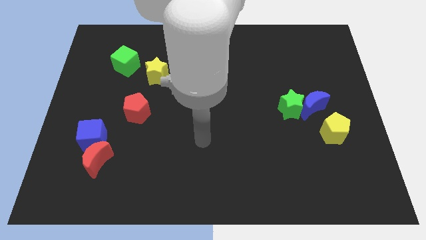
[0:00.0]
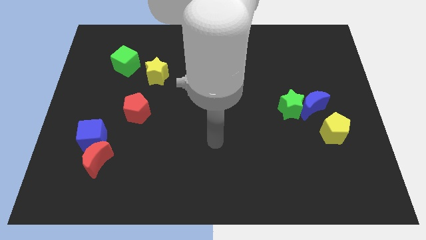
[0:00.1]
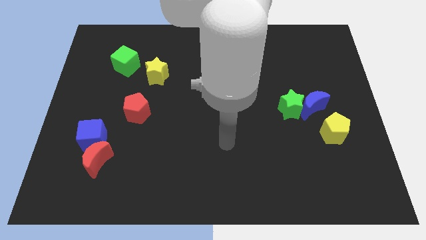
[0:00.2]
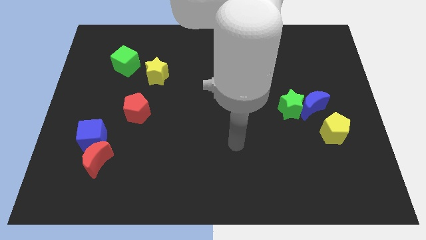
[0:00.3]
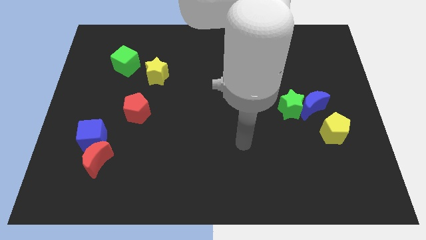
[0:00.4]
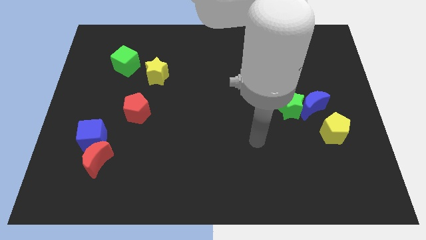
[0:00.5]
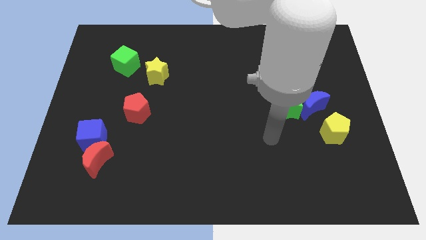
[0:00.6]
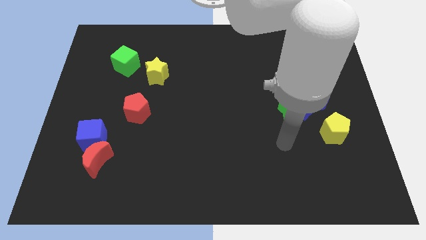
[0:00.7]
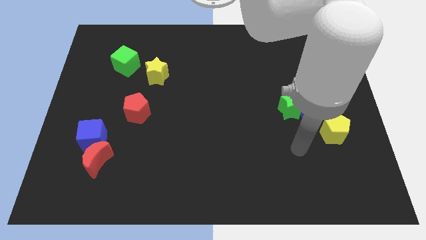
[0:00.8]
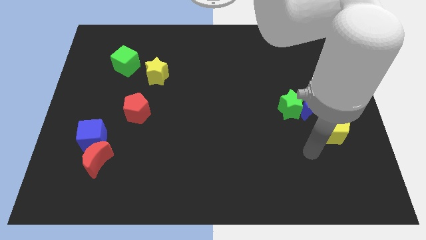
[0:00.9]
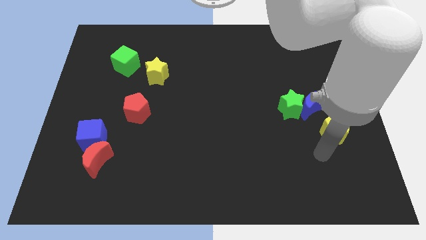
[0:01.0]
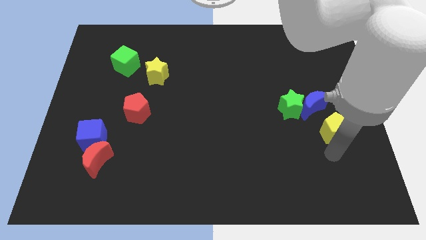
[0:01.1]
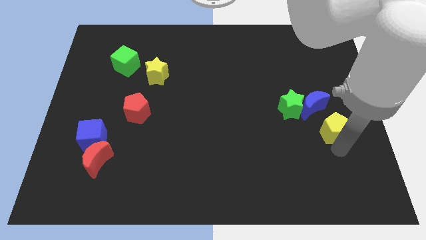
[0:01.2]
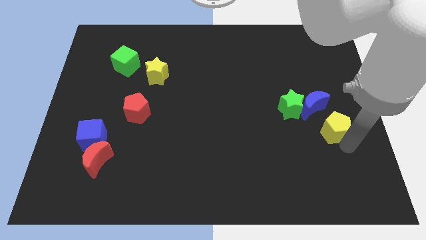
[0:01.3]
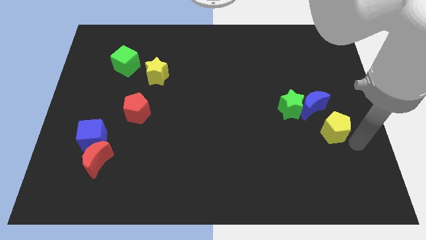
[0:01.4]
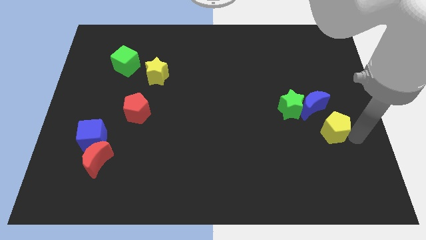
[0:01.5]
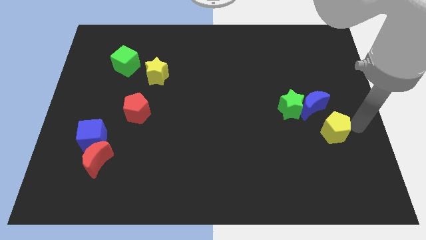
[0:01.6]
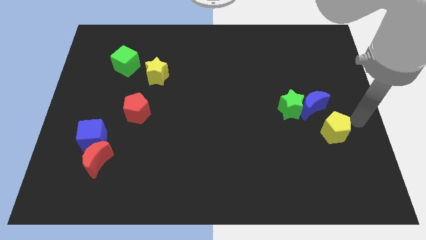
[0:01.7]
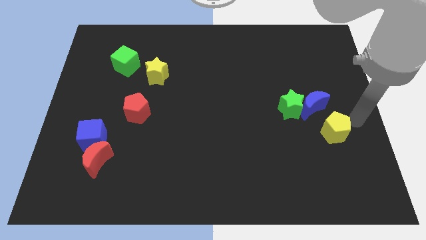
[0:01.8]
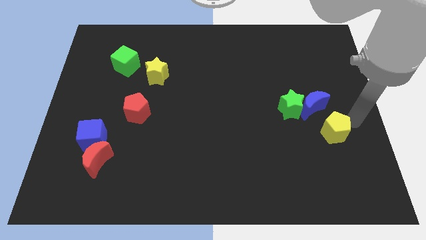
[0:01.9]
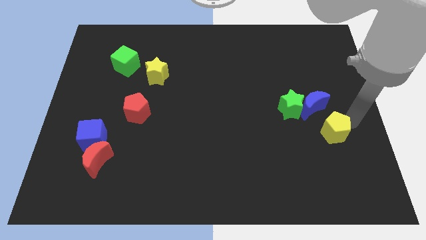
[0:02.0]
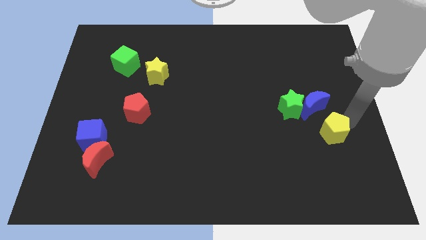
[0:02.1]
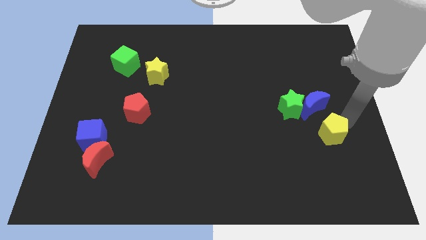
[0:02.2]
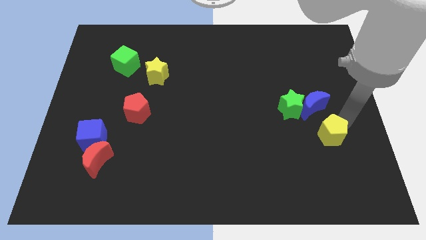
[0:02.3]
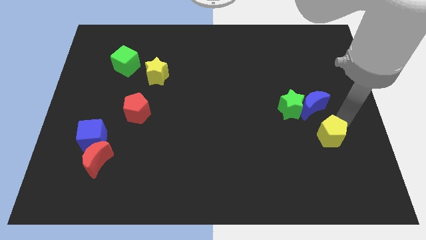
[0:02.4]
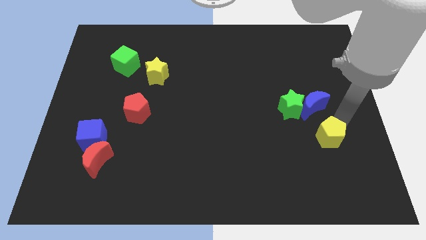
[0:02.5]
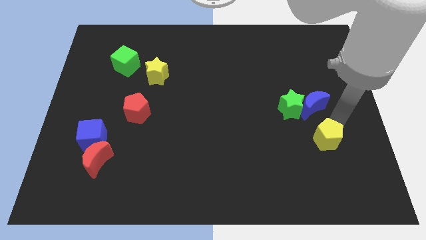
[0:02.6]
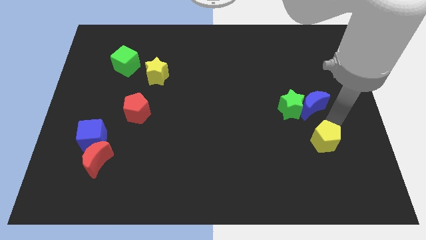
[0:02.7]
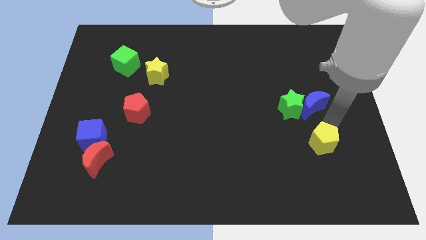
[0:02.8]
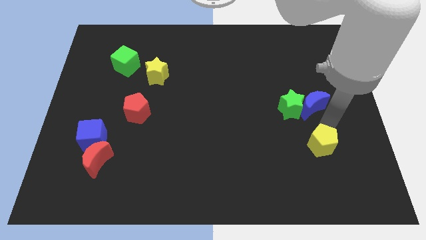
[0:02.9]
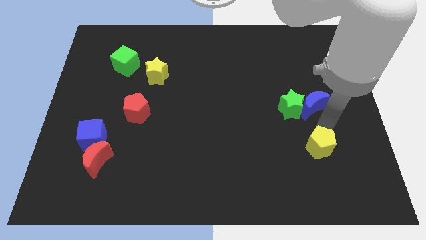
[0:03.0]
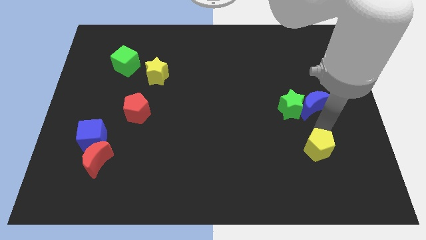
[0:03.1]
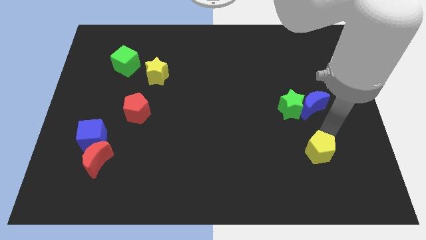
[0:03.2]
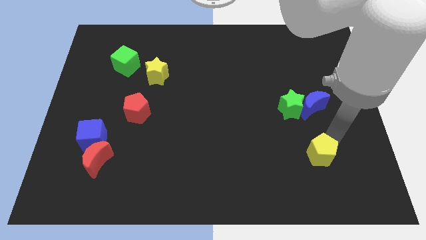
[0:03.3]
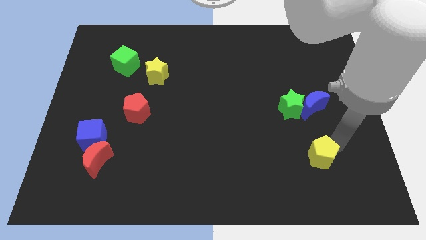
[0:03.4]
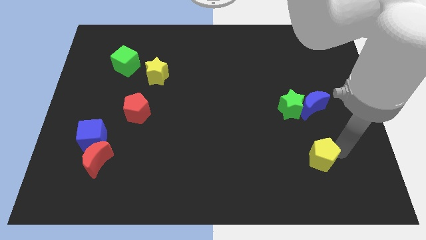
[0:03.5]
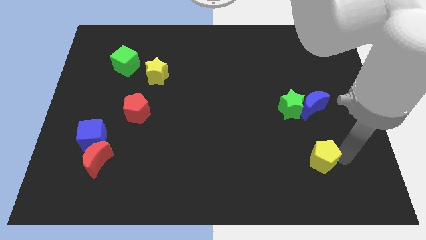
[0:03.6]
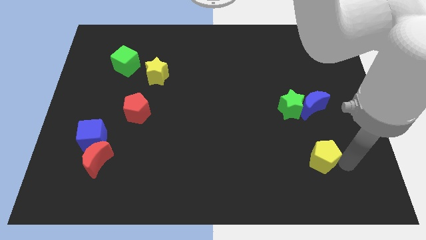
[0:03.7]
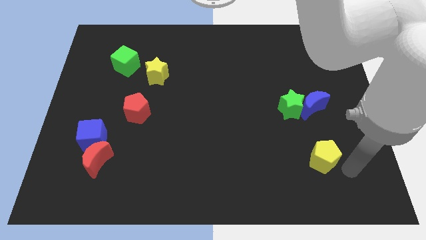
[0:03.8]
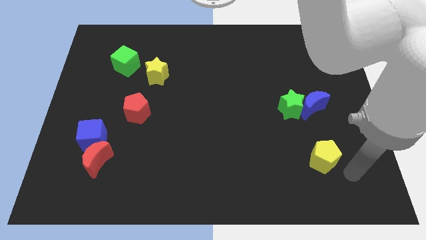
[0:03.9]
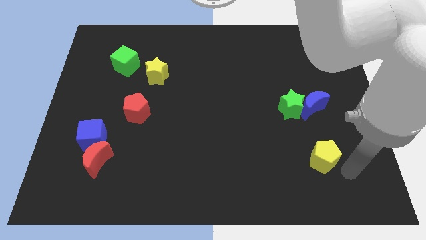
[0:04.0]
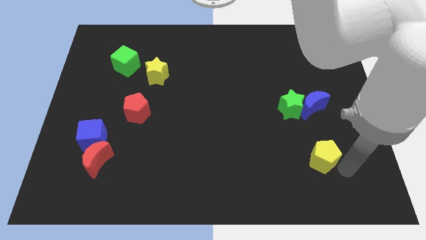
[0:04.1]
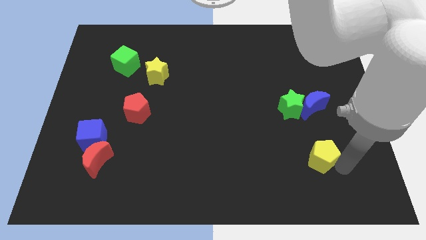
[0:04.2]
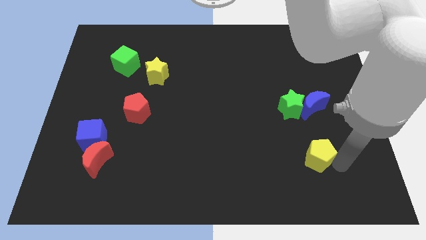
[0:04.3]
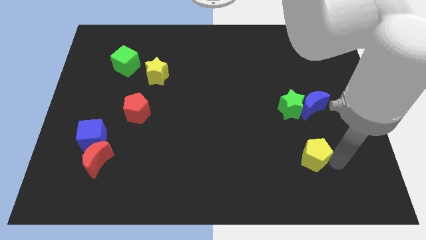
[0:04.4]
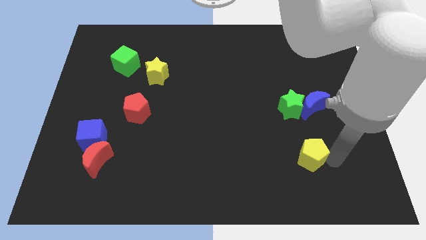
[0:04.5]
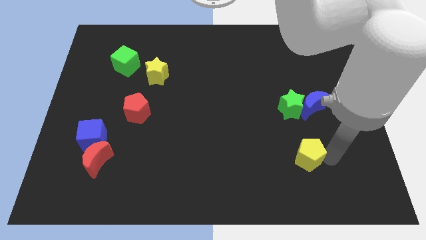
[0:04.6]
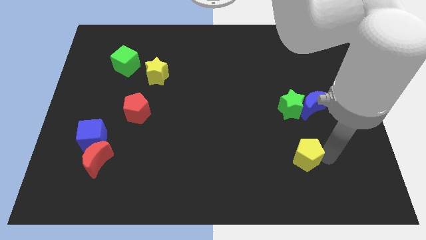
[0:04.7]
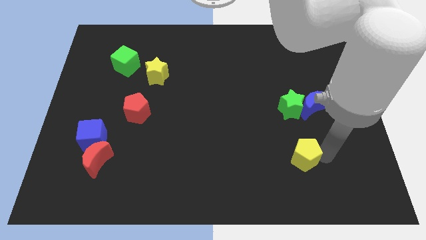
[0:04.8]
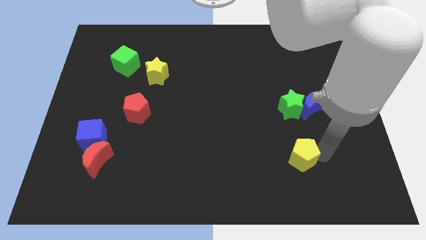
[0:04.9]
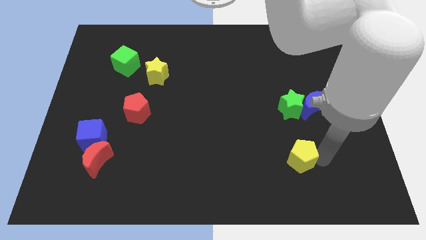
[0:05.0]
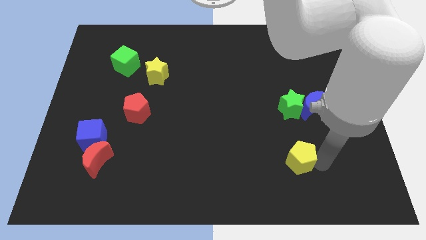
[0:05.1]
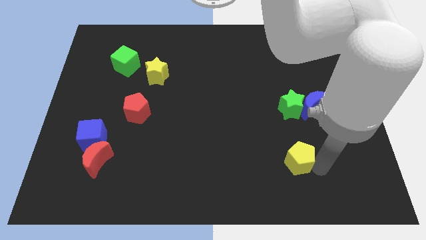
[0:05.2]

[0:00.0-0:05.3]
move the yellow pentagon left a bit

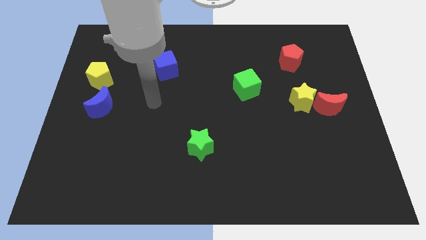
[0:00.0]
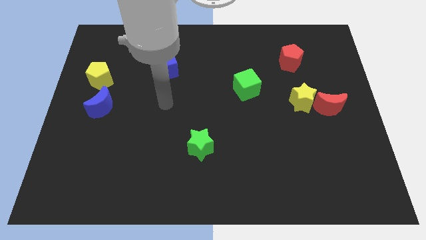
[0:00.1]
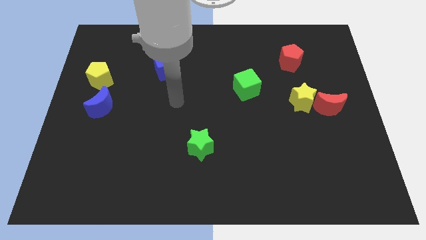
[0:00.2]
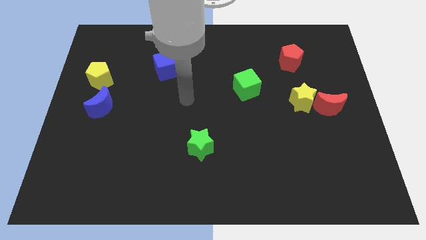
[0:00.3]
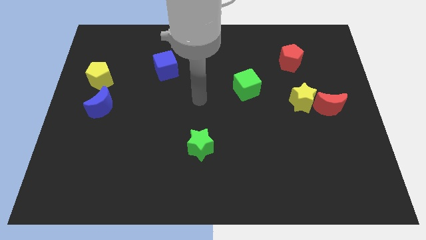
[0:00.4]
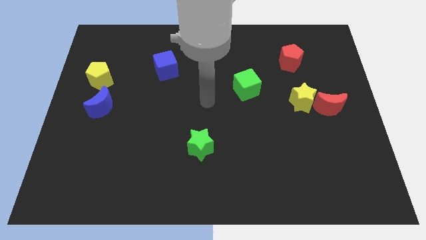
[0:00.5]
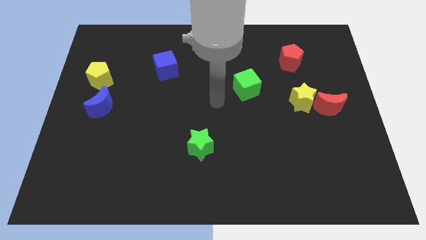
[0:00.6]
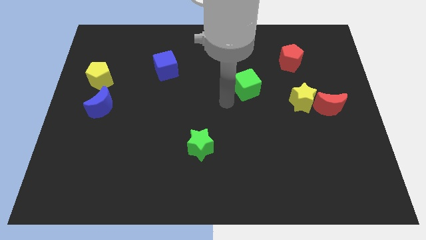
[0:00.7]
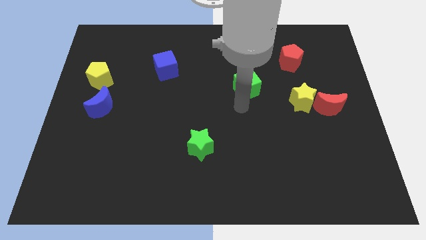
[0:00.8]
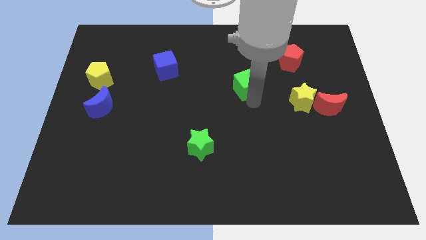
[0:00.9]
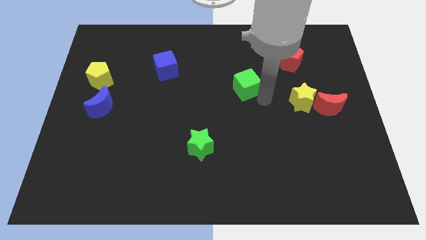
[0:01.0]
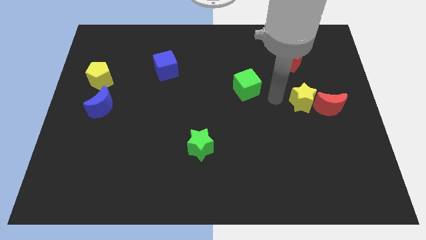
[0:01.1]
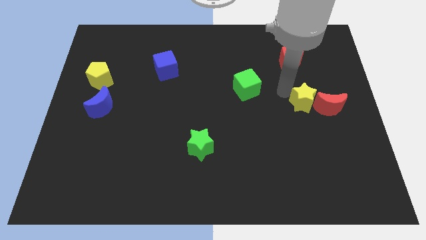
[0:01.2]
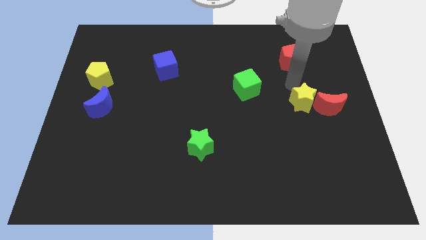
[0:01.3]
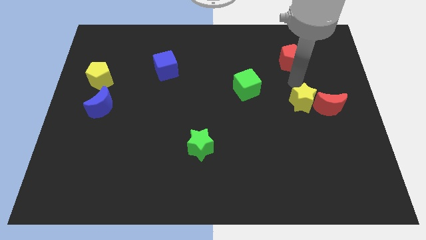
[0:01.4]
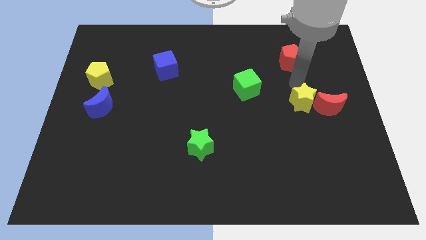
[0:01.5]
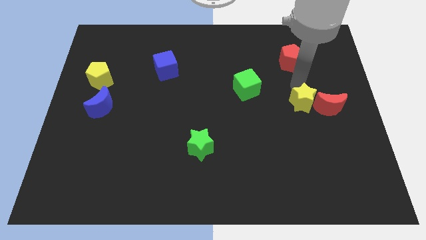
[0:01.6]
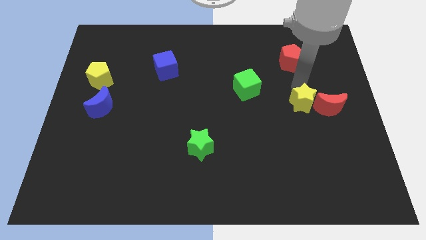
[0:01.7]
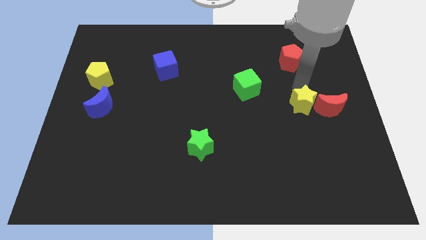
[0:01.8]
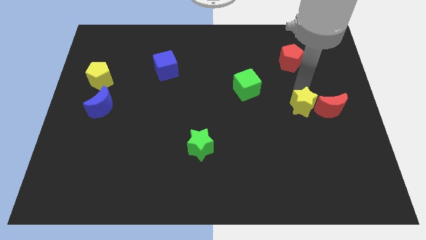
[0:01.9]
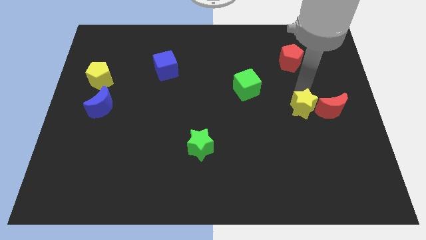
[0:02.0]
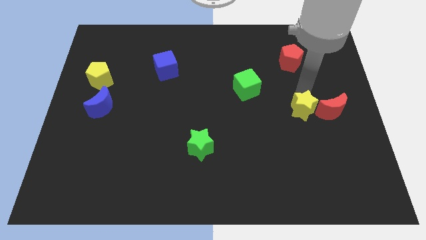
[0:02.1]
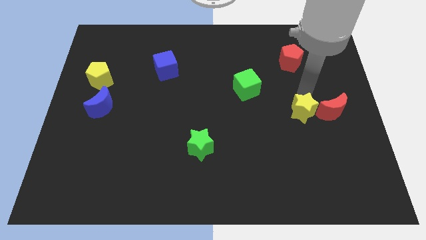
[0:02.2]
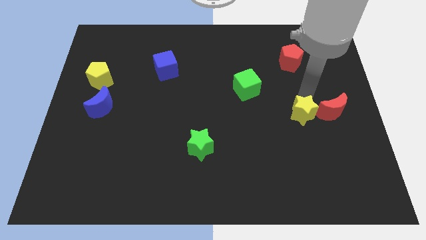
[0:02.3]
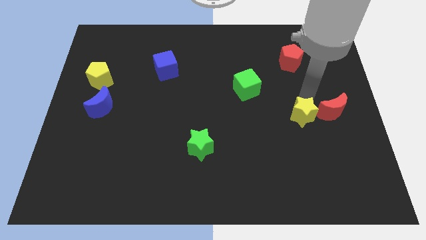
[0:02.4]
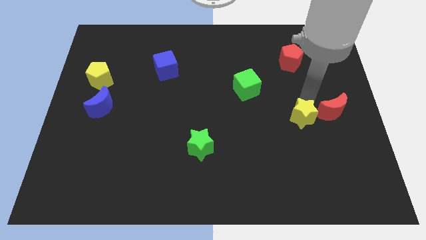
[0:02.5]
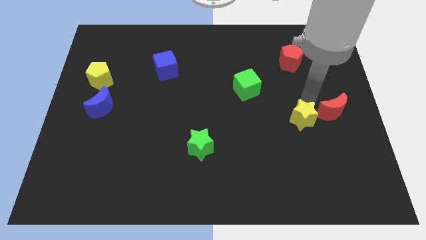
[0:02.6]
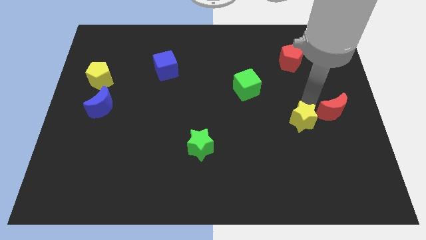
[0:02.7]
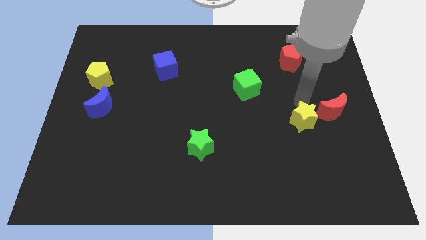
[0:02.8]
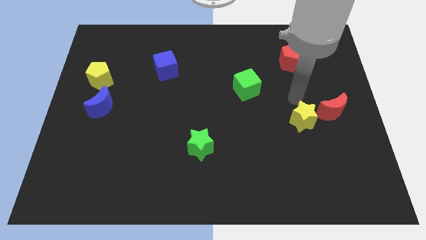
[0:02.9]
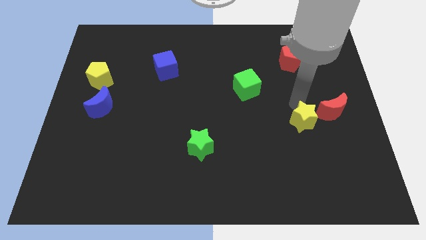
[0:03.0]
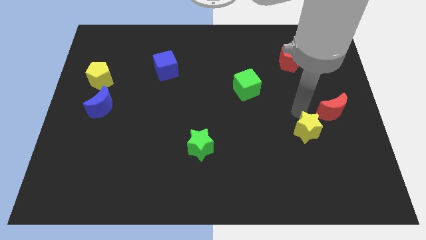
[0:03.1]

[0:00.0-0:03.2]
slightly slide the yellow star downwards
